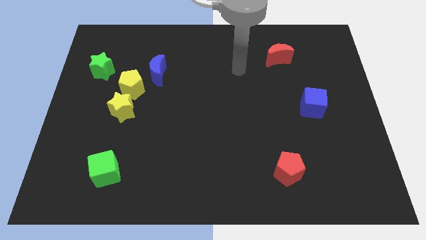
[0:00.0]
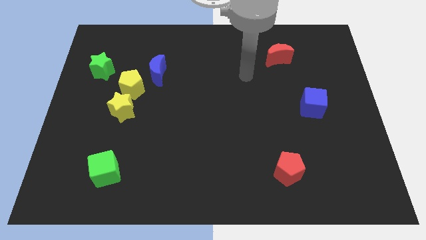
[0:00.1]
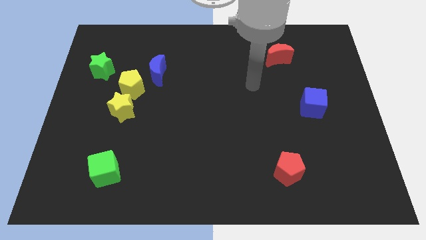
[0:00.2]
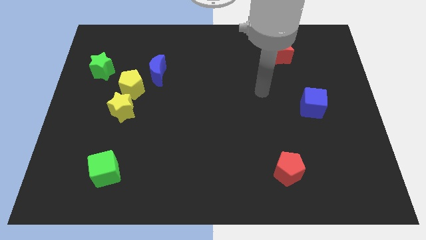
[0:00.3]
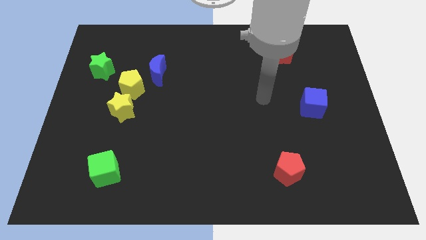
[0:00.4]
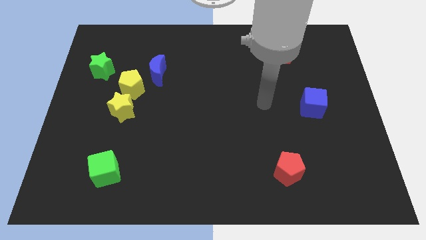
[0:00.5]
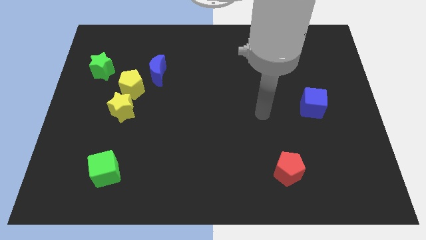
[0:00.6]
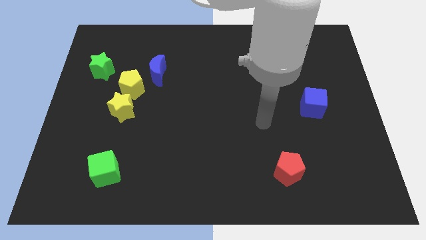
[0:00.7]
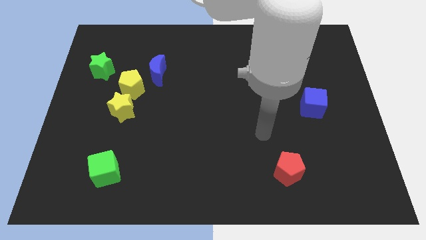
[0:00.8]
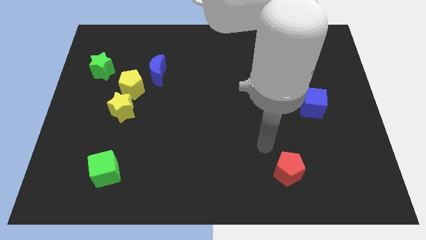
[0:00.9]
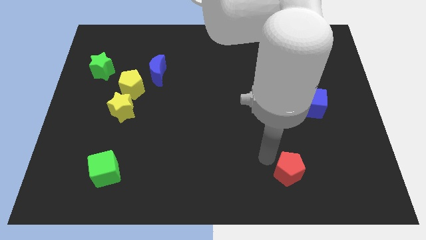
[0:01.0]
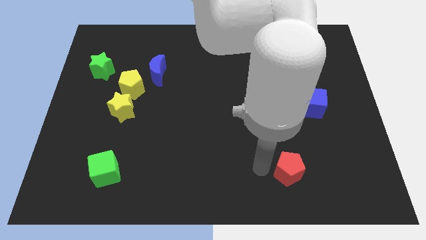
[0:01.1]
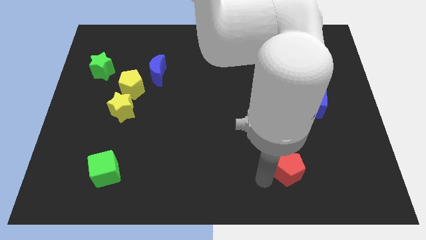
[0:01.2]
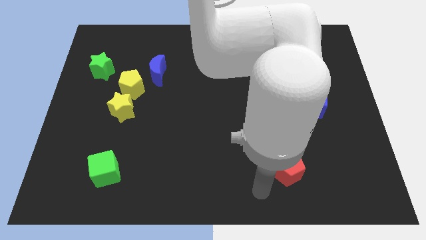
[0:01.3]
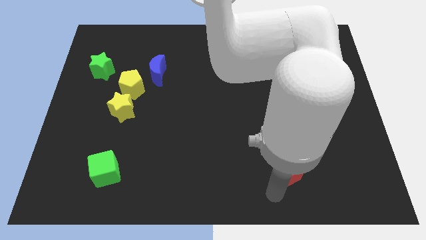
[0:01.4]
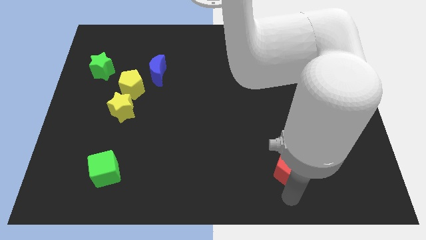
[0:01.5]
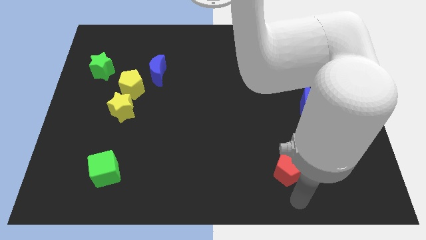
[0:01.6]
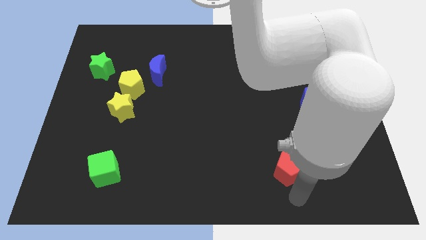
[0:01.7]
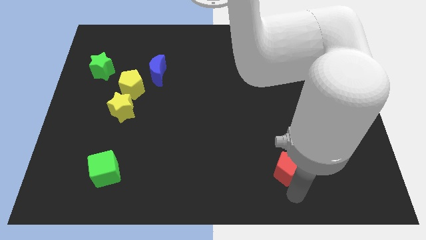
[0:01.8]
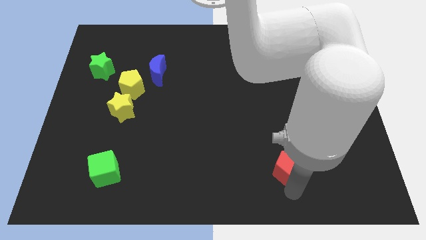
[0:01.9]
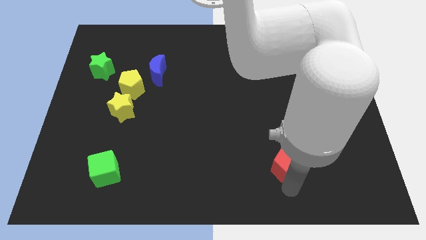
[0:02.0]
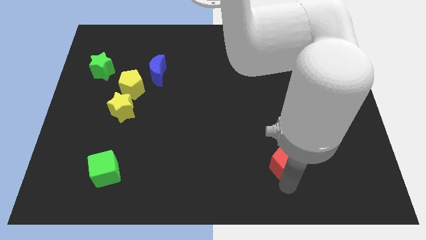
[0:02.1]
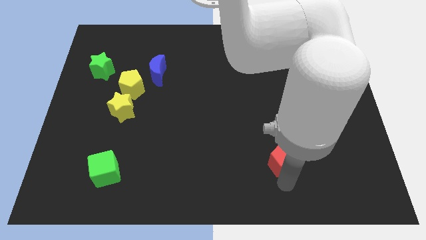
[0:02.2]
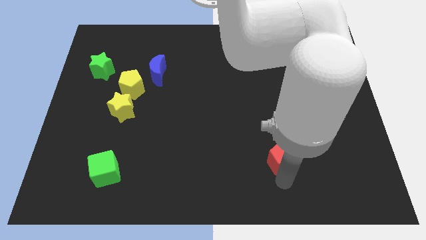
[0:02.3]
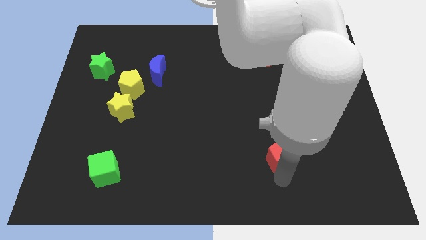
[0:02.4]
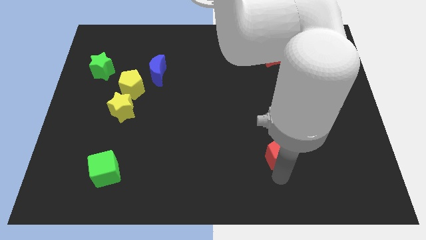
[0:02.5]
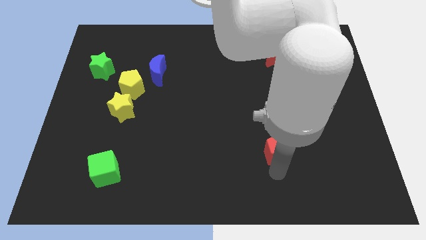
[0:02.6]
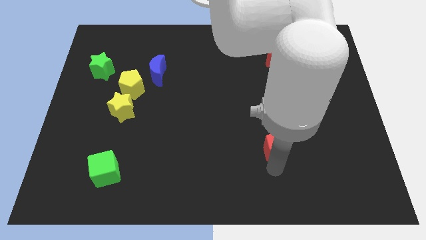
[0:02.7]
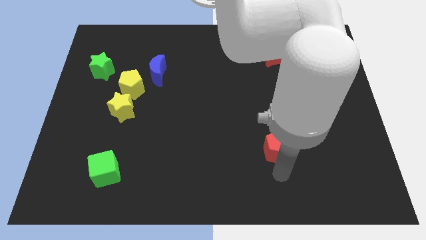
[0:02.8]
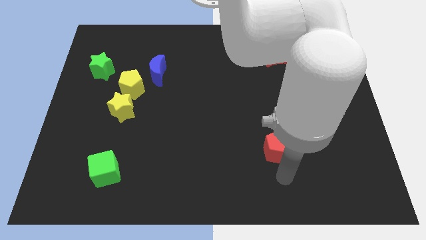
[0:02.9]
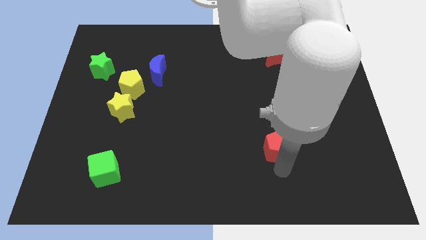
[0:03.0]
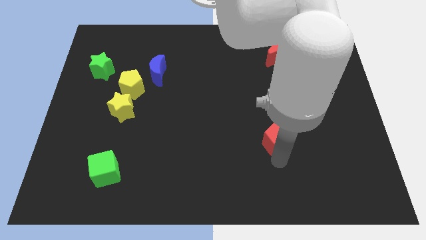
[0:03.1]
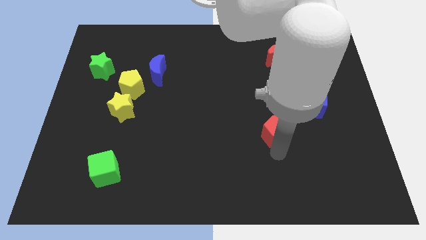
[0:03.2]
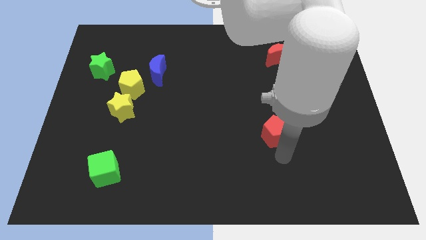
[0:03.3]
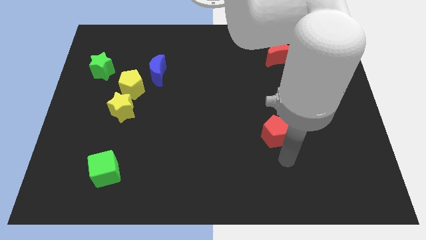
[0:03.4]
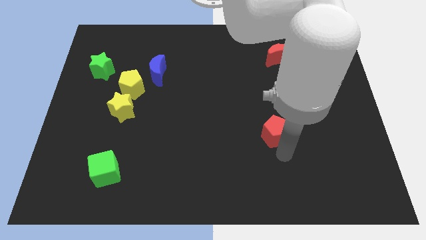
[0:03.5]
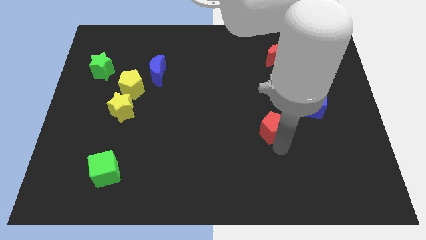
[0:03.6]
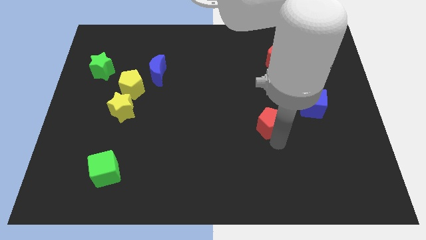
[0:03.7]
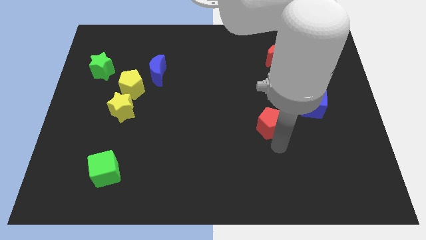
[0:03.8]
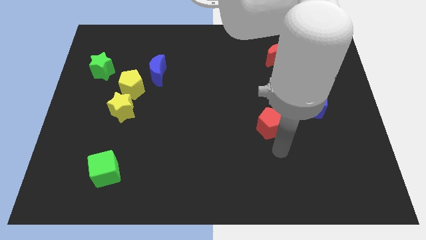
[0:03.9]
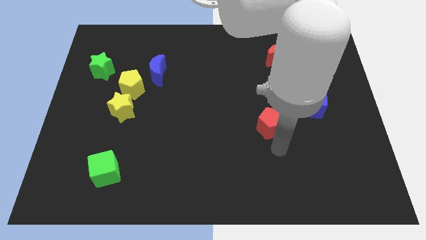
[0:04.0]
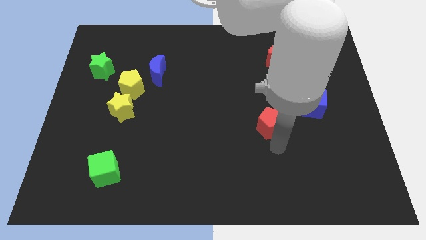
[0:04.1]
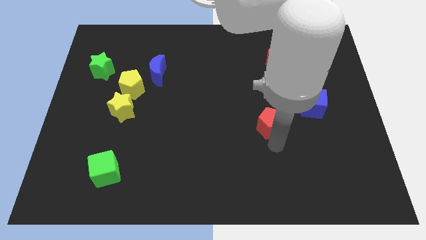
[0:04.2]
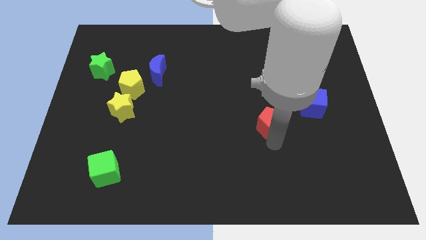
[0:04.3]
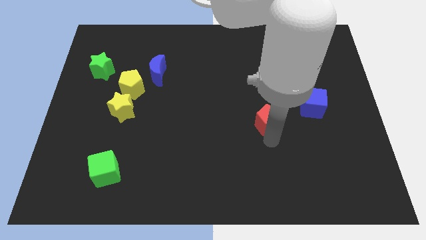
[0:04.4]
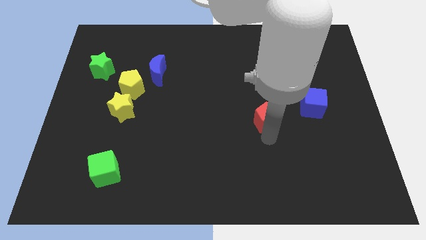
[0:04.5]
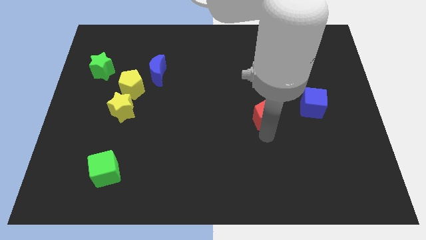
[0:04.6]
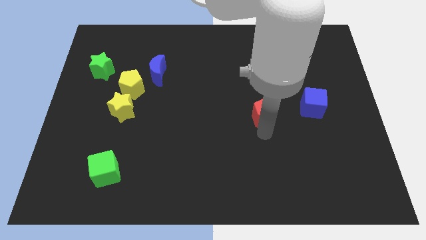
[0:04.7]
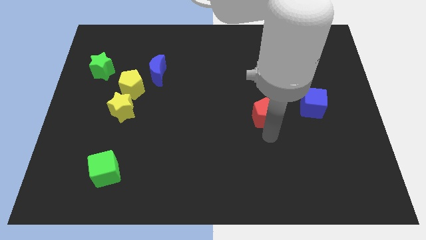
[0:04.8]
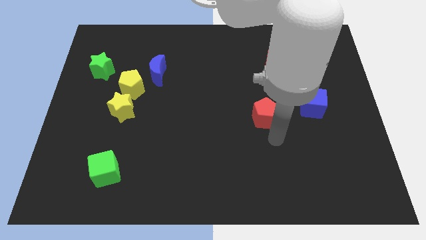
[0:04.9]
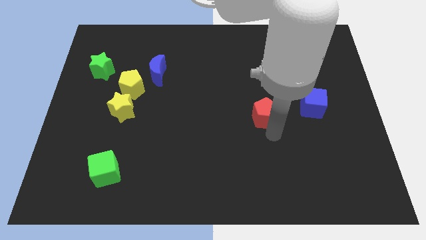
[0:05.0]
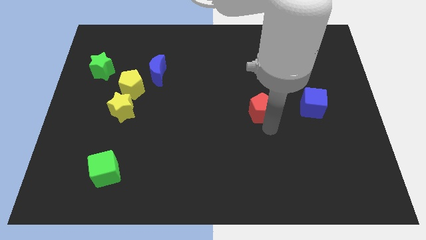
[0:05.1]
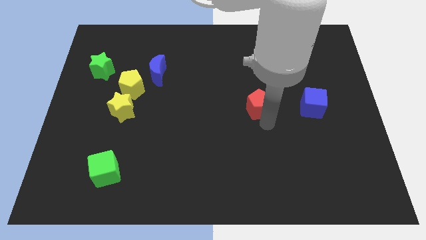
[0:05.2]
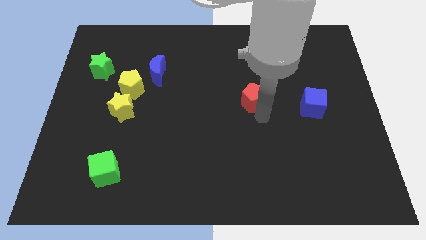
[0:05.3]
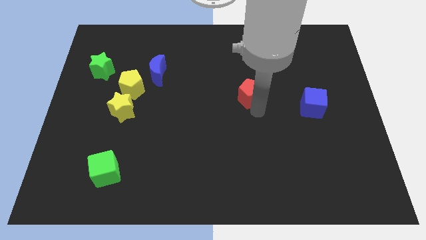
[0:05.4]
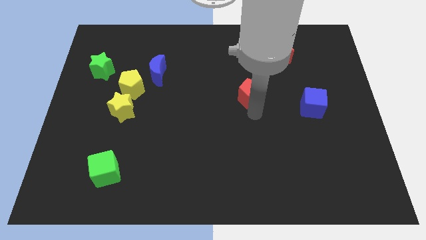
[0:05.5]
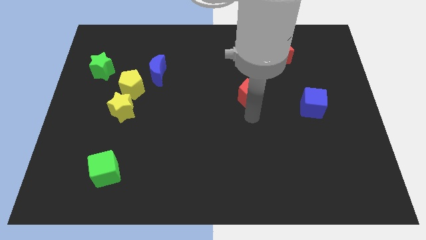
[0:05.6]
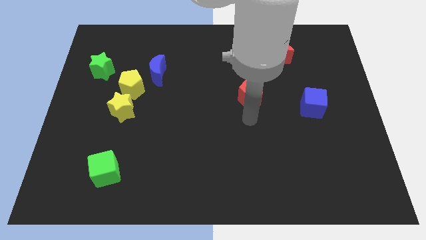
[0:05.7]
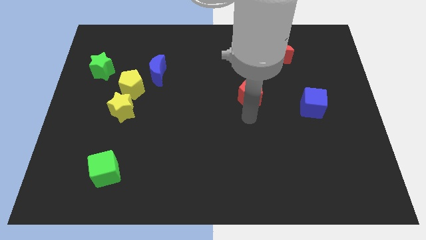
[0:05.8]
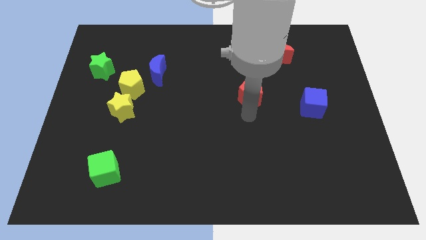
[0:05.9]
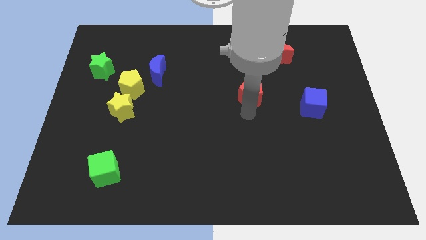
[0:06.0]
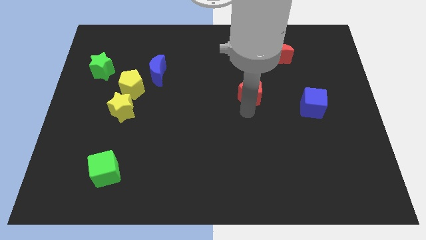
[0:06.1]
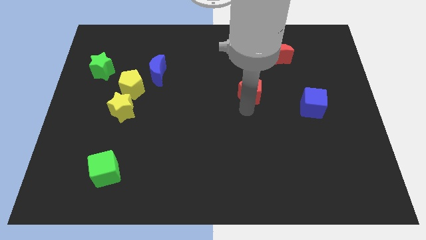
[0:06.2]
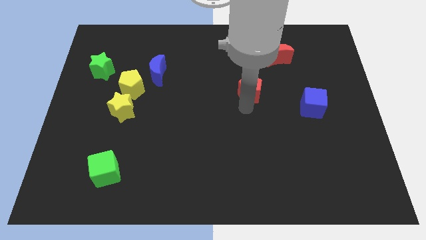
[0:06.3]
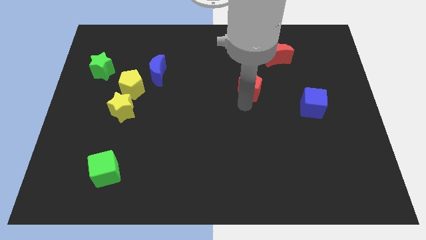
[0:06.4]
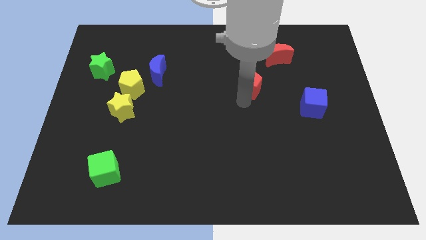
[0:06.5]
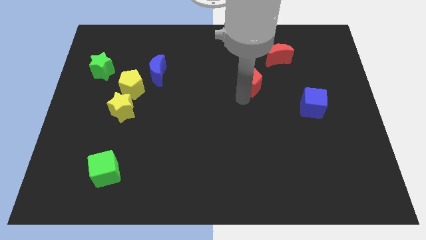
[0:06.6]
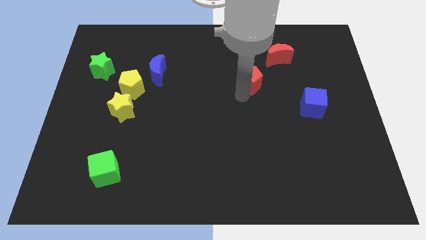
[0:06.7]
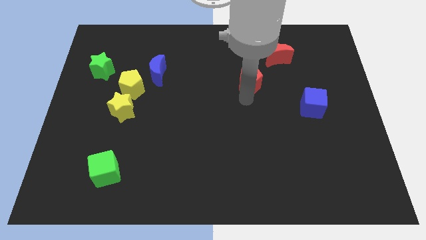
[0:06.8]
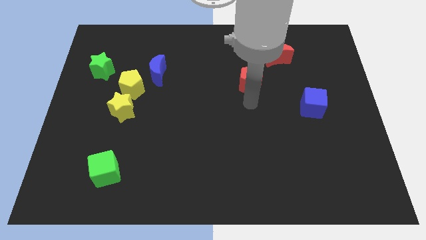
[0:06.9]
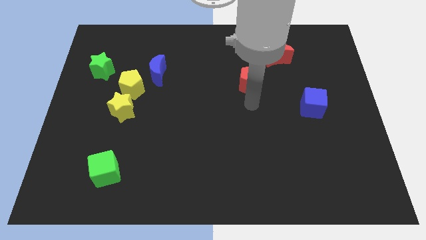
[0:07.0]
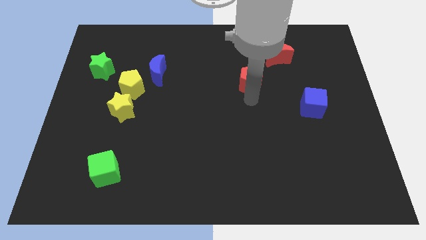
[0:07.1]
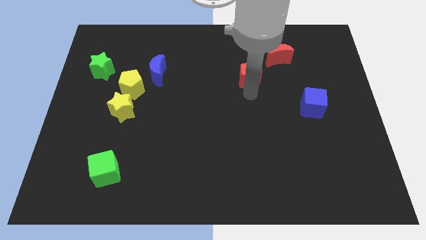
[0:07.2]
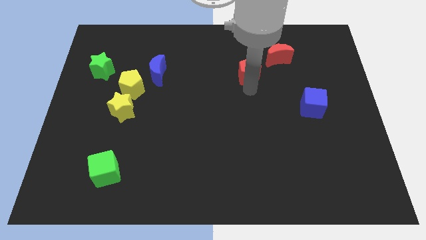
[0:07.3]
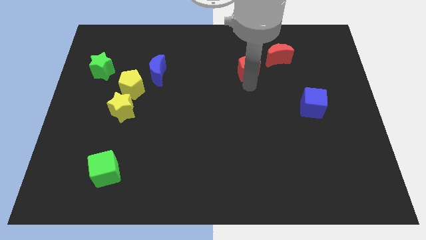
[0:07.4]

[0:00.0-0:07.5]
push the red pentagon to the left side of the red moon

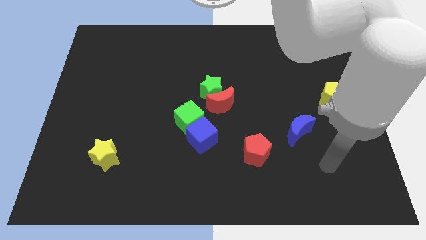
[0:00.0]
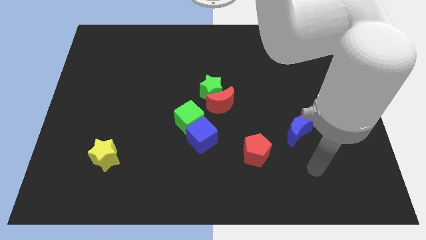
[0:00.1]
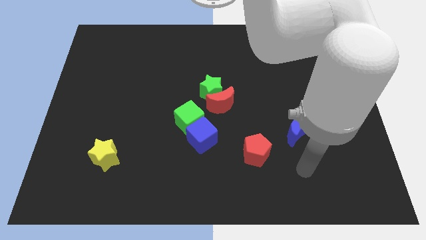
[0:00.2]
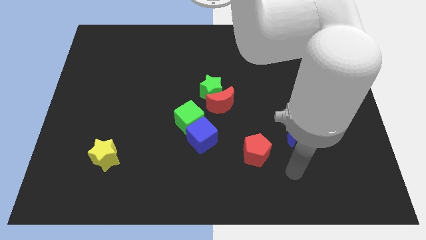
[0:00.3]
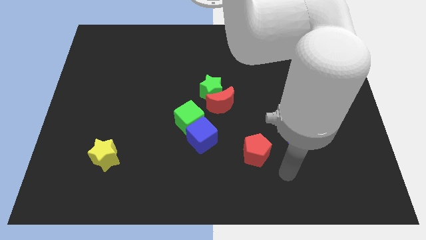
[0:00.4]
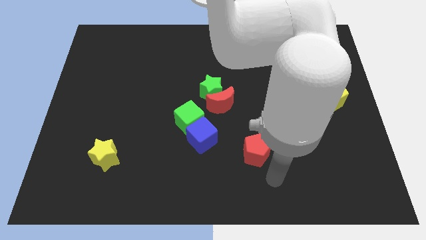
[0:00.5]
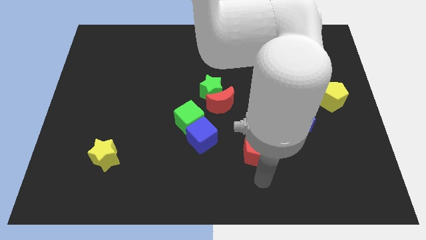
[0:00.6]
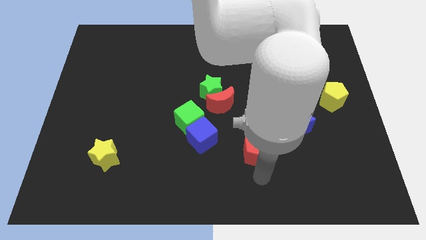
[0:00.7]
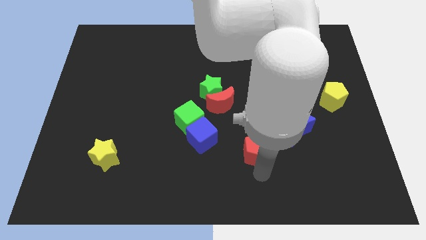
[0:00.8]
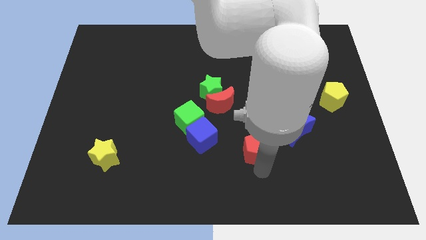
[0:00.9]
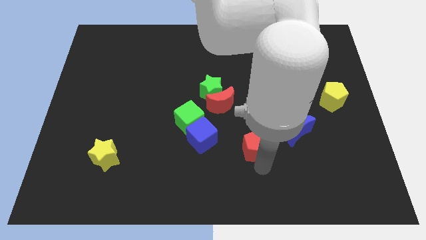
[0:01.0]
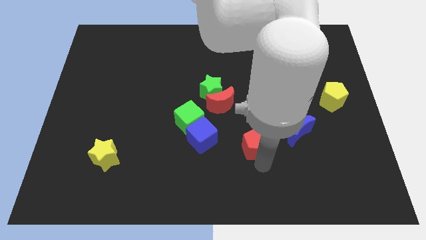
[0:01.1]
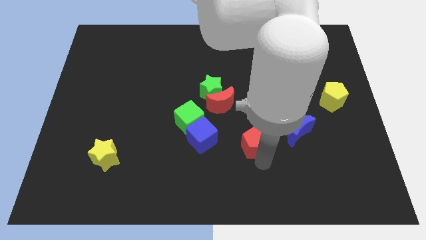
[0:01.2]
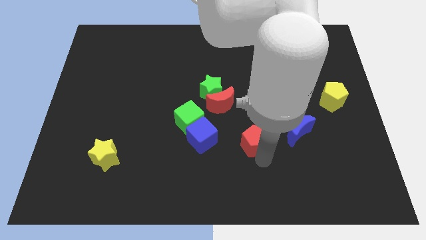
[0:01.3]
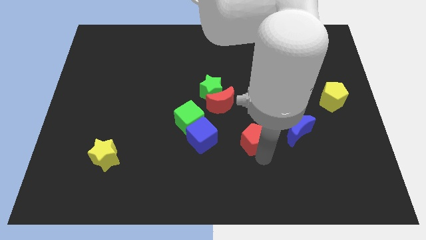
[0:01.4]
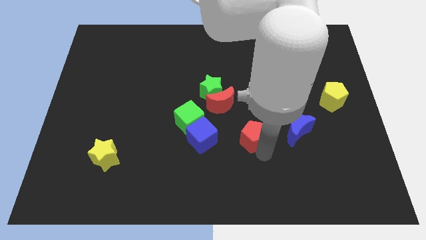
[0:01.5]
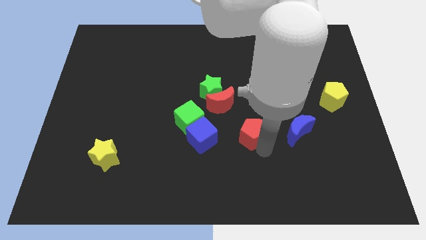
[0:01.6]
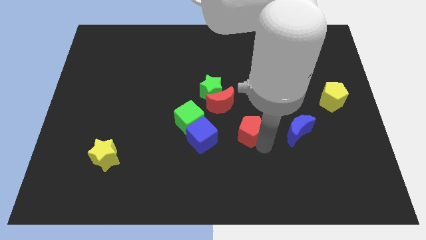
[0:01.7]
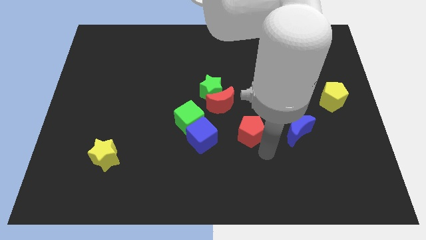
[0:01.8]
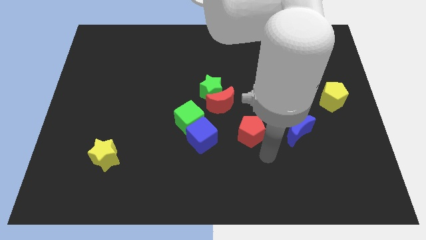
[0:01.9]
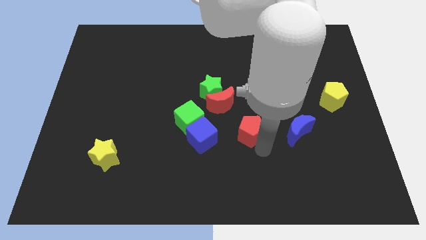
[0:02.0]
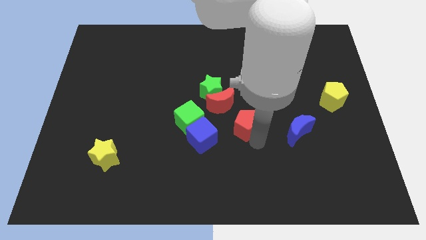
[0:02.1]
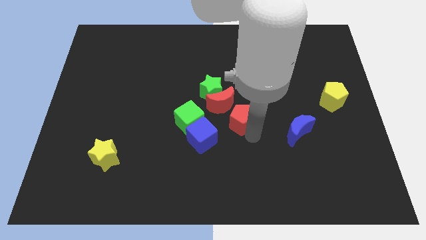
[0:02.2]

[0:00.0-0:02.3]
slide the red pentagon to the bottom right of the green star
